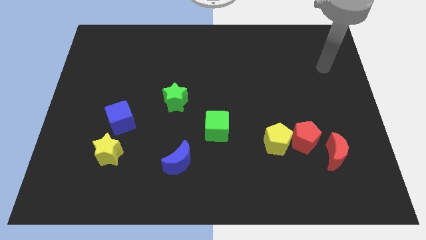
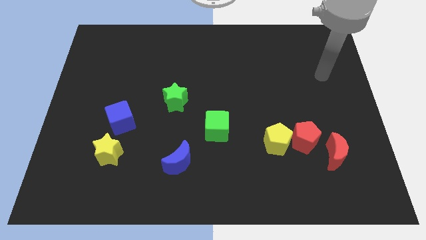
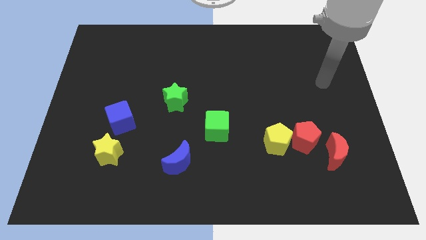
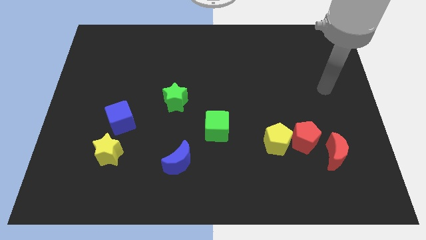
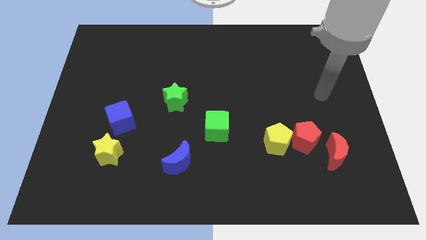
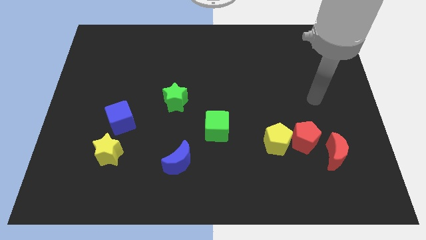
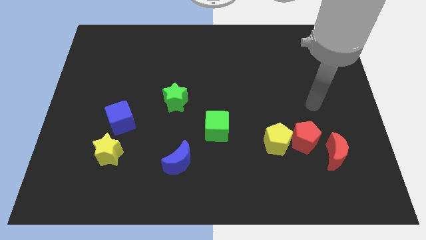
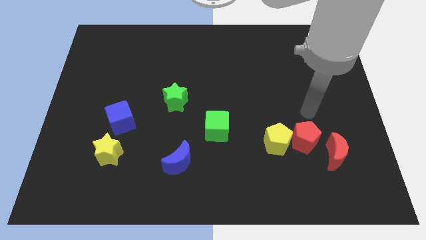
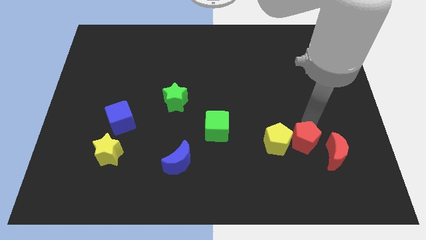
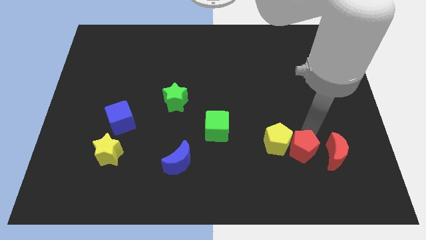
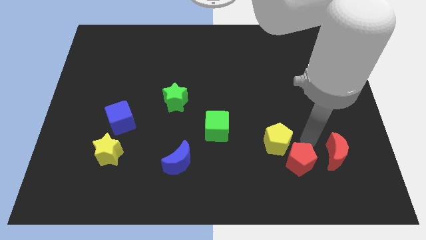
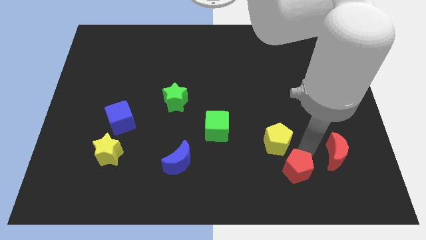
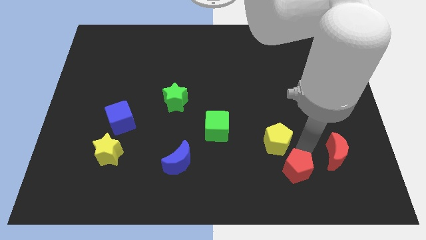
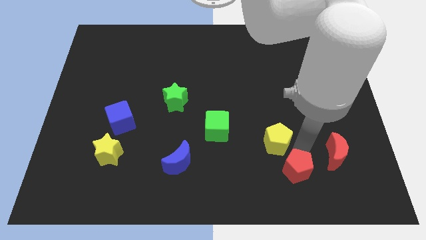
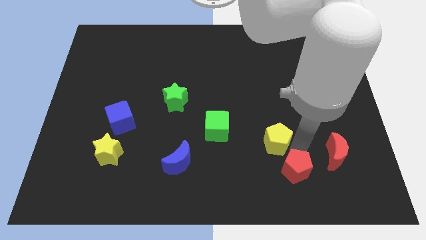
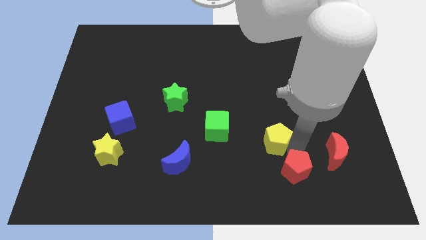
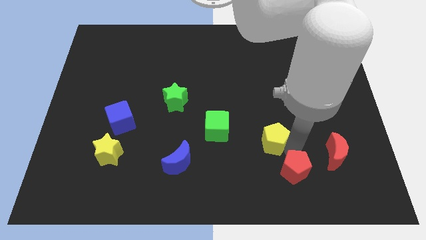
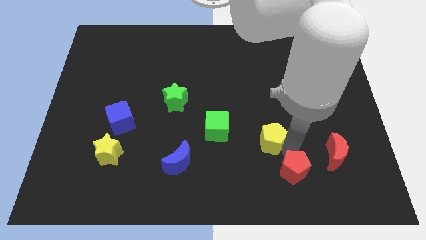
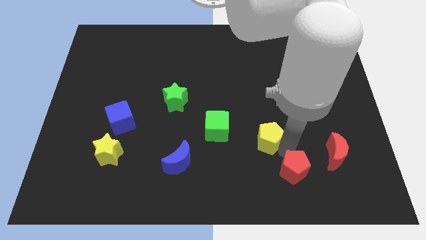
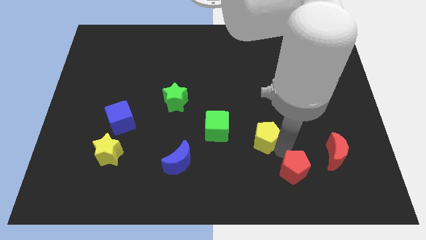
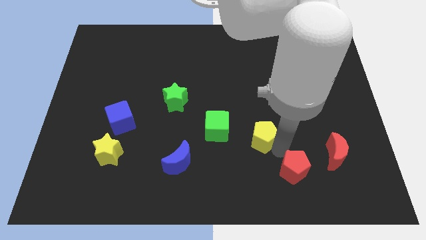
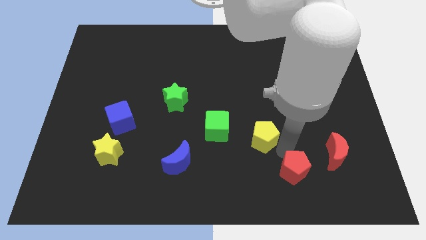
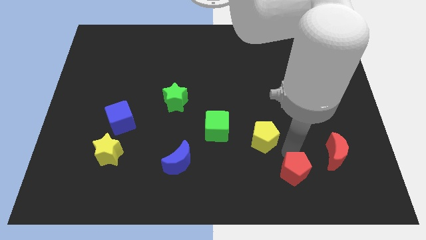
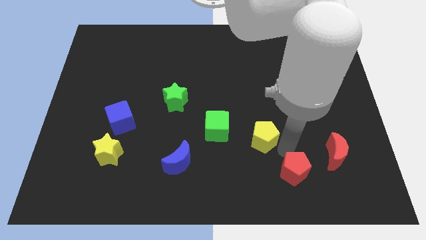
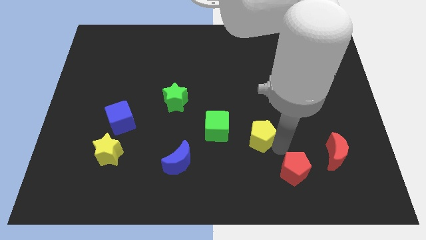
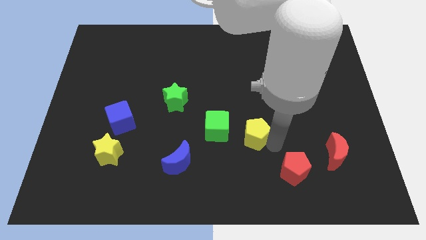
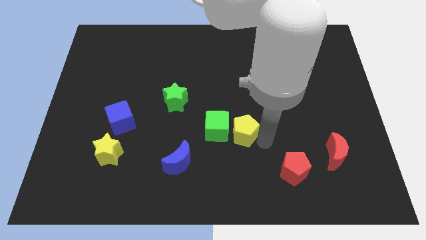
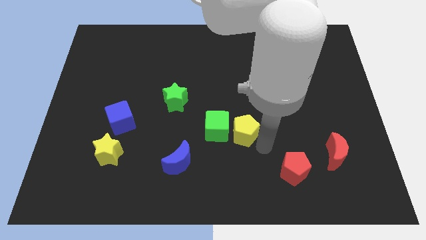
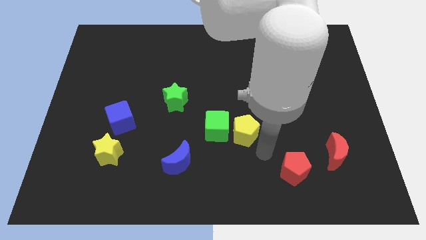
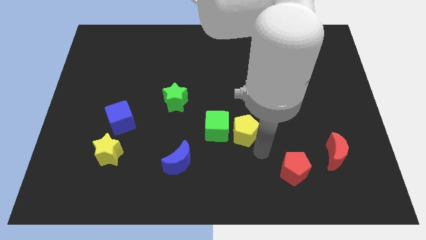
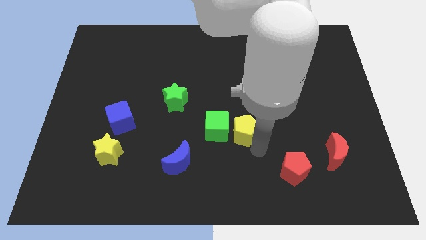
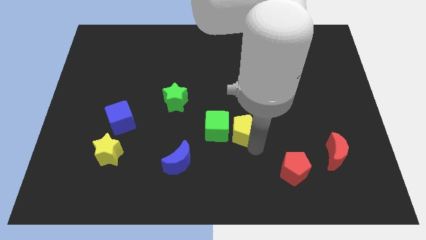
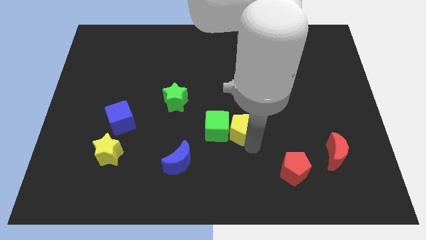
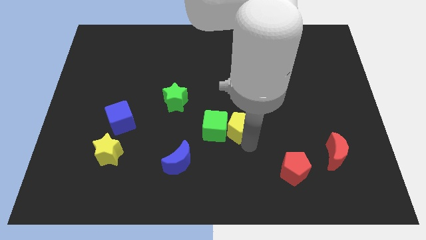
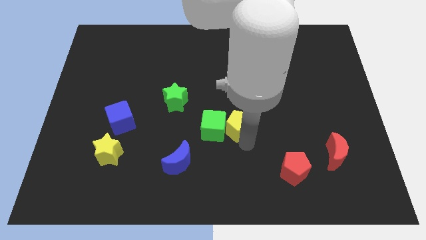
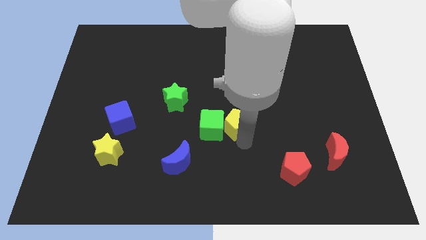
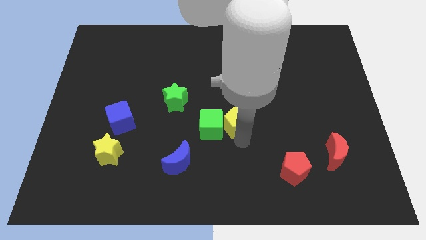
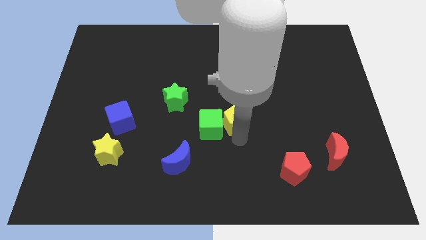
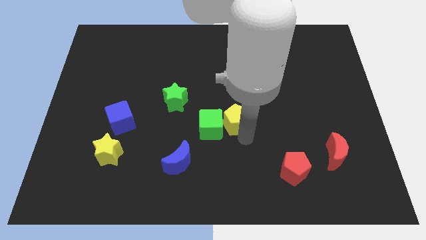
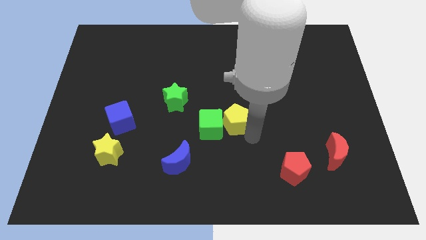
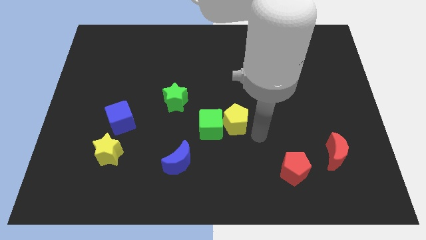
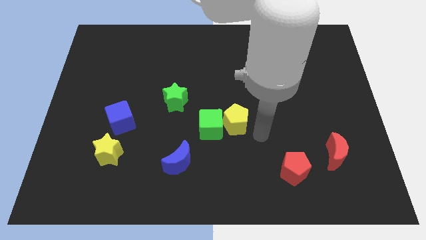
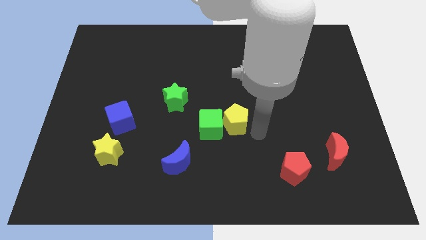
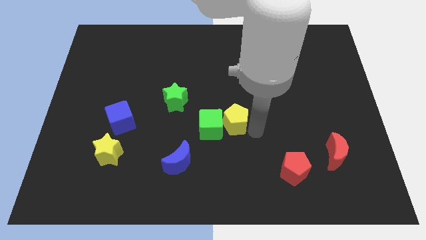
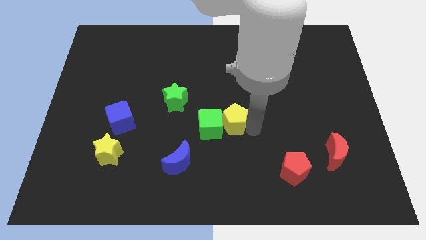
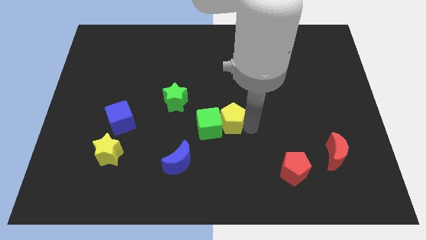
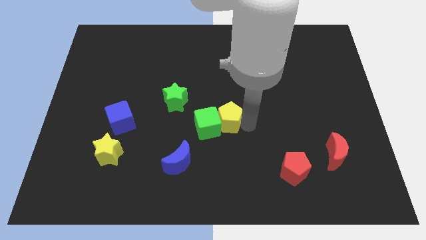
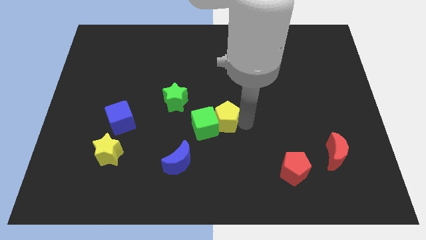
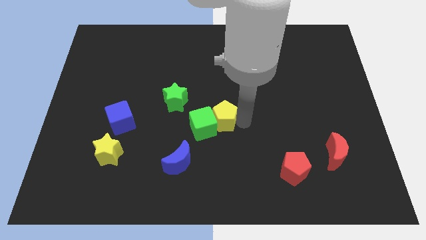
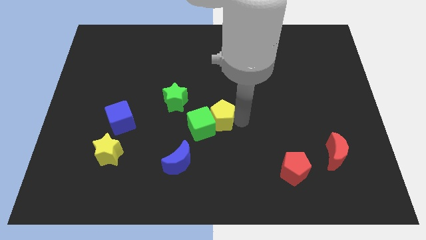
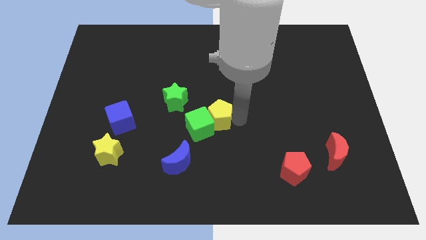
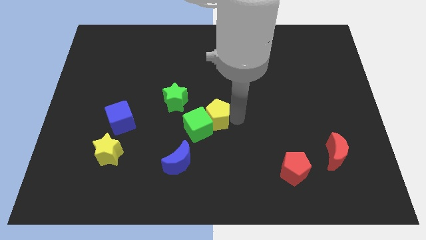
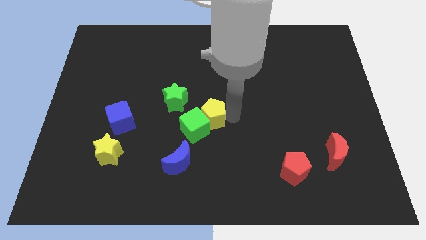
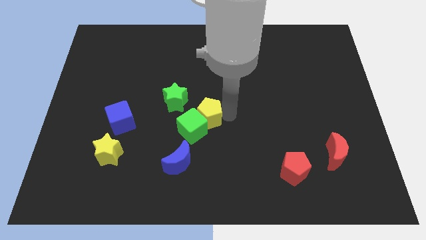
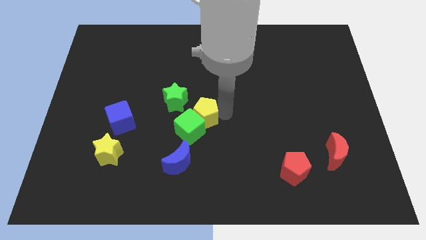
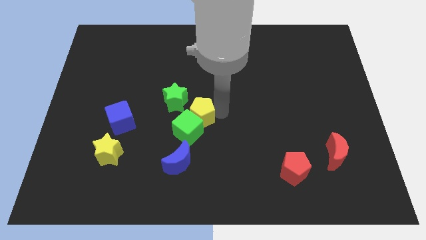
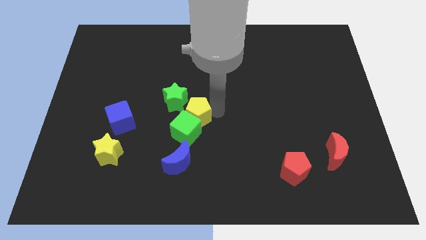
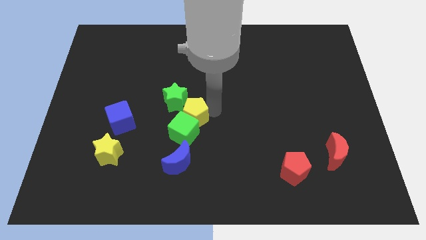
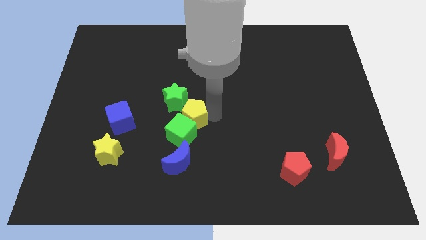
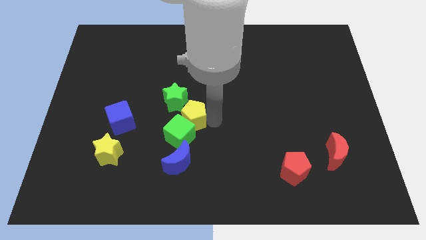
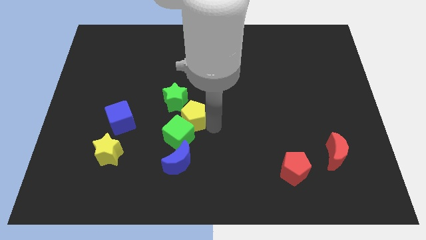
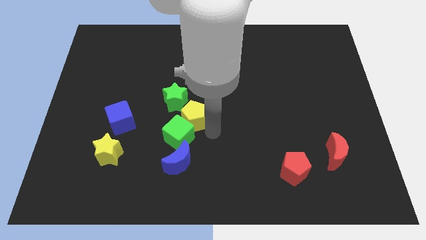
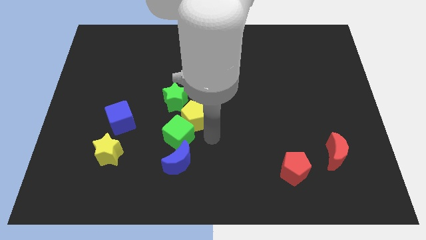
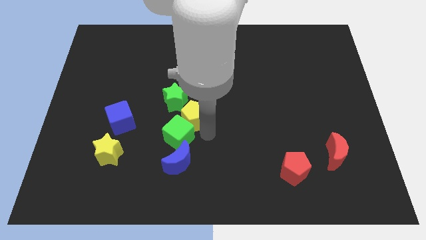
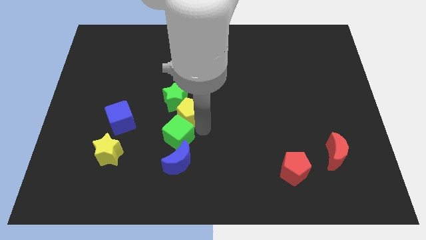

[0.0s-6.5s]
slide the yellow pentagon next to the green star

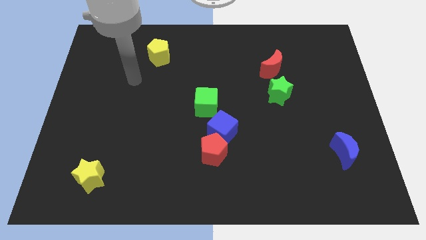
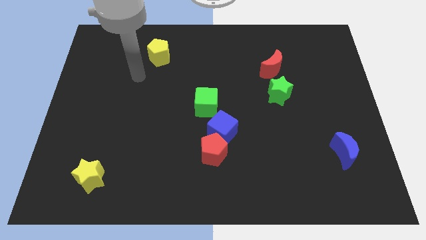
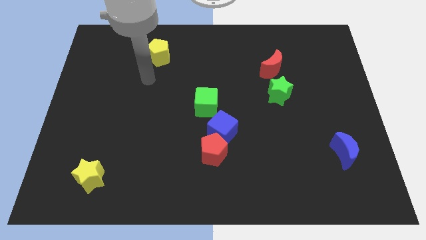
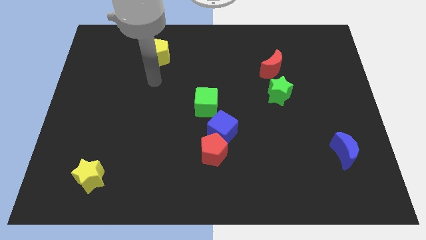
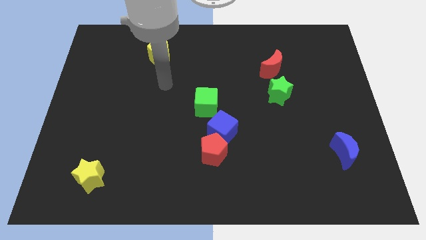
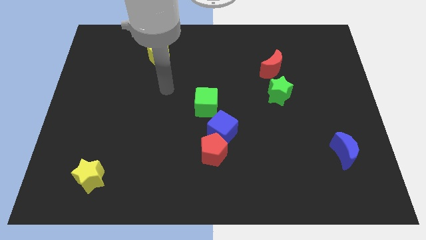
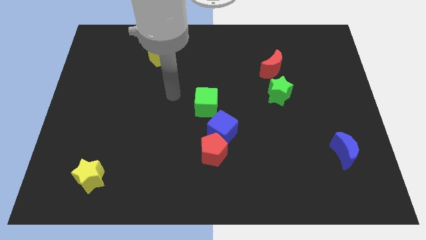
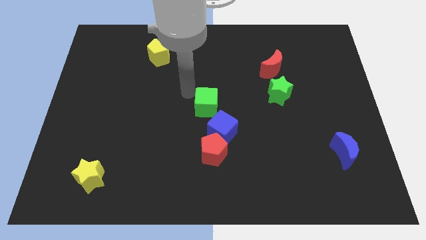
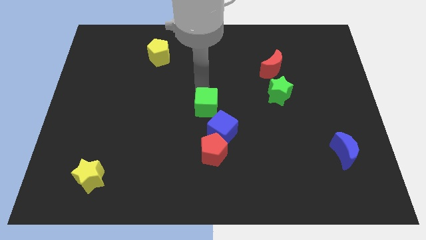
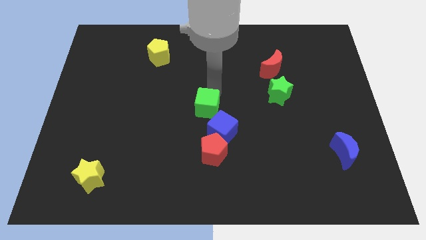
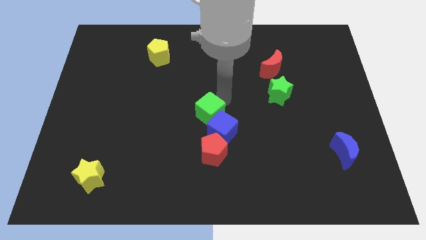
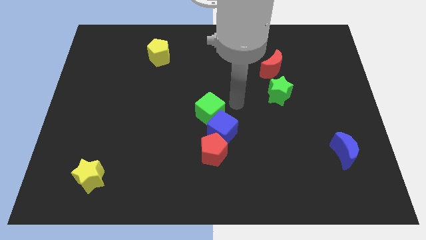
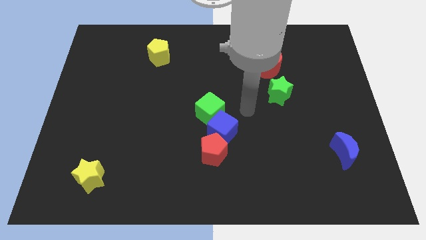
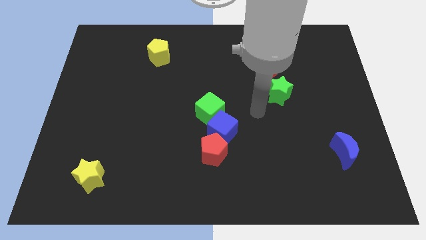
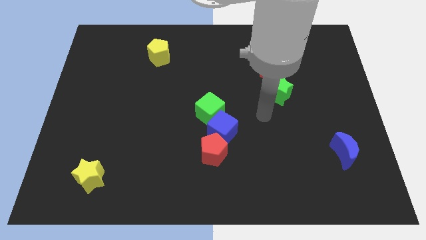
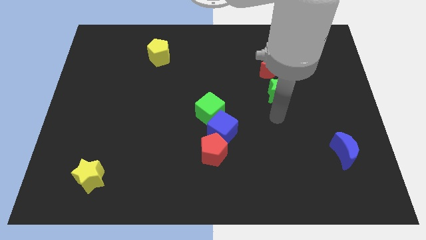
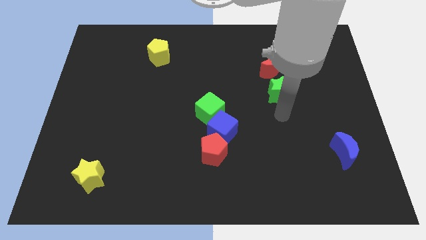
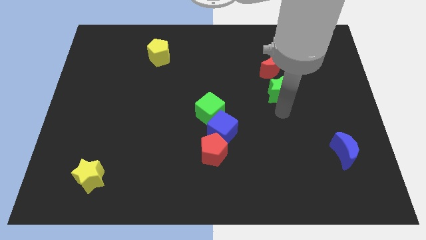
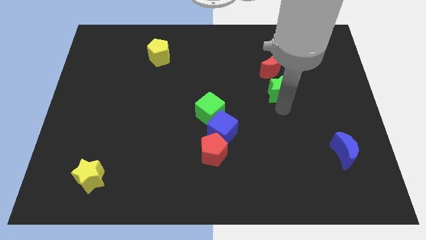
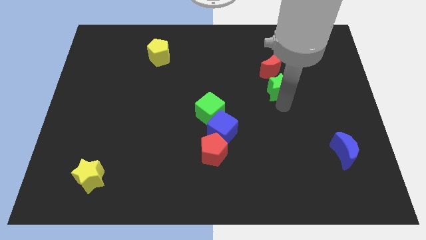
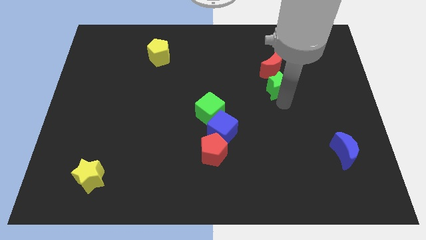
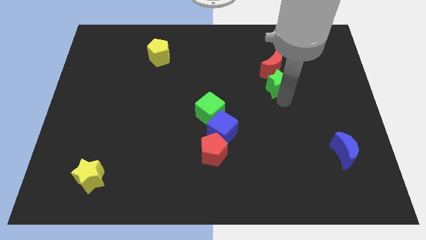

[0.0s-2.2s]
put the green star towards the red moon
